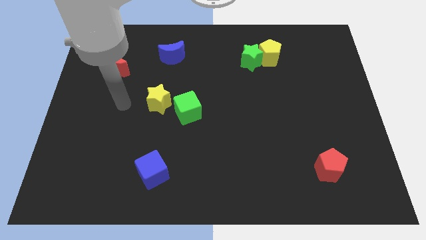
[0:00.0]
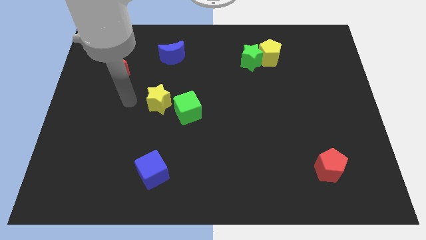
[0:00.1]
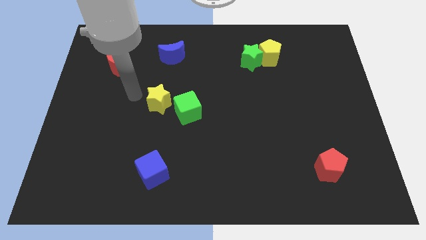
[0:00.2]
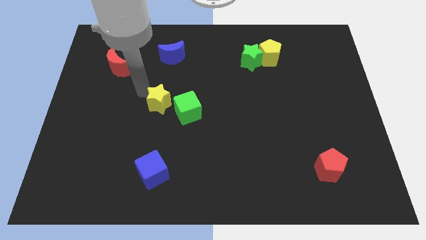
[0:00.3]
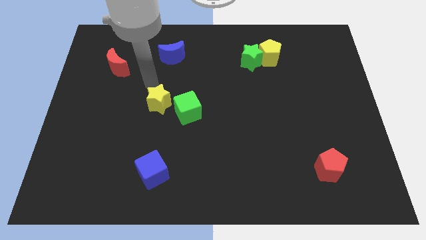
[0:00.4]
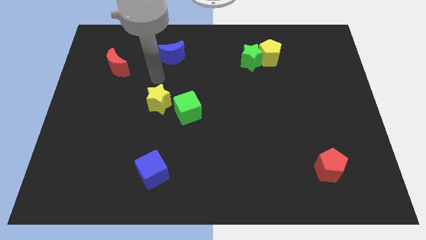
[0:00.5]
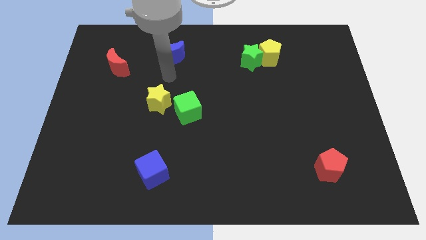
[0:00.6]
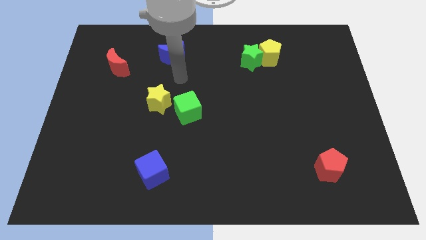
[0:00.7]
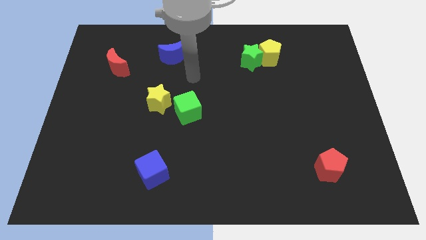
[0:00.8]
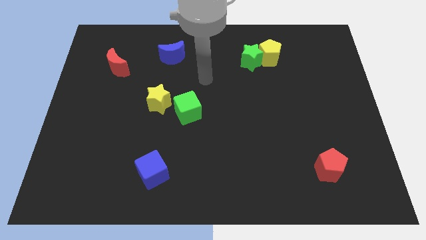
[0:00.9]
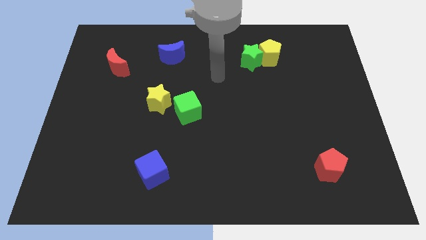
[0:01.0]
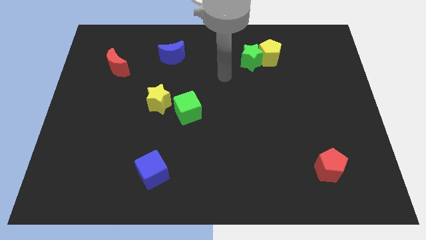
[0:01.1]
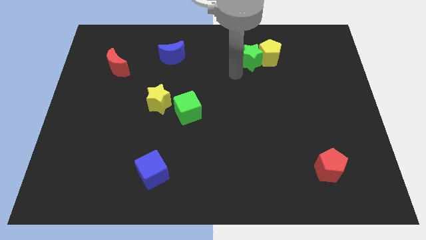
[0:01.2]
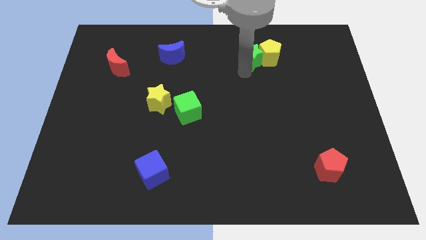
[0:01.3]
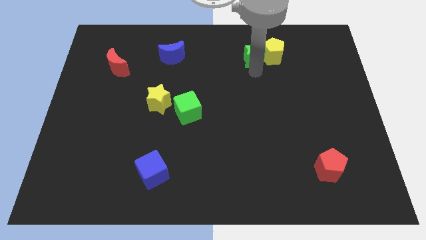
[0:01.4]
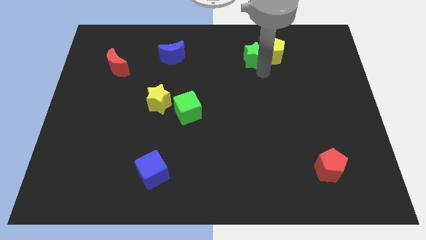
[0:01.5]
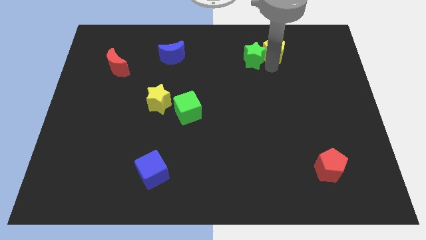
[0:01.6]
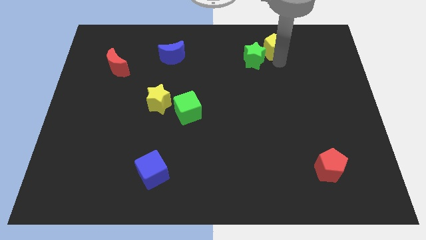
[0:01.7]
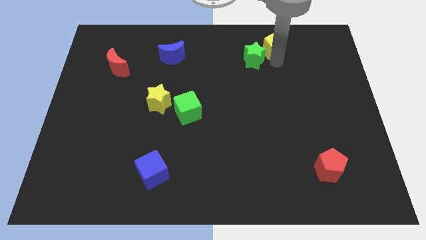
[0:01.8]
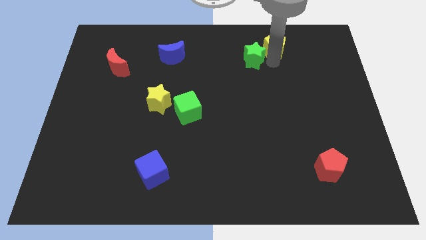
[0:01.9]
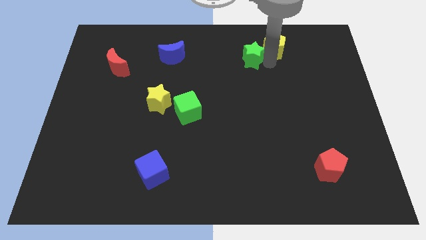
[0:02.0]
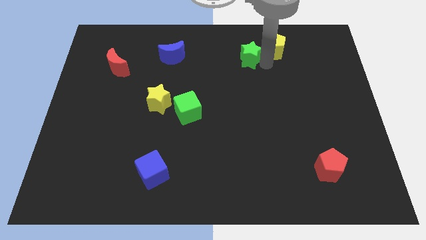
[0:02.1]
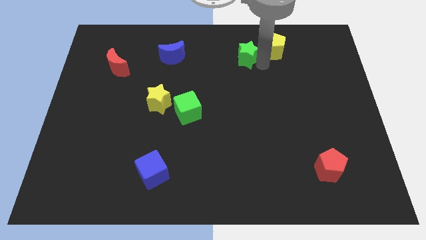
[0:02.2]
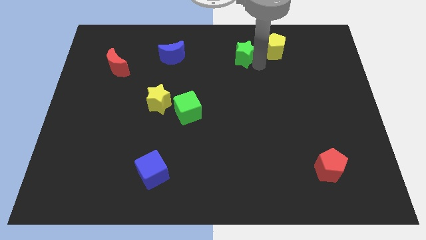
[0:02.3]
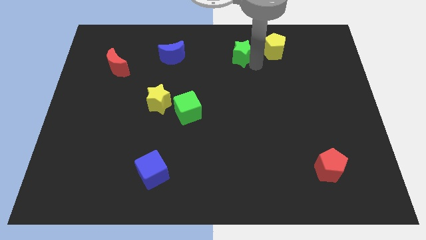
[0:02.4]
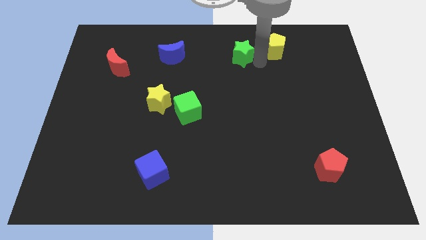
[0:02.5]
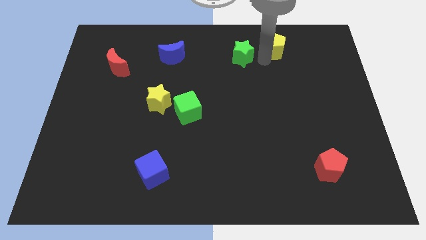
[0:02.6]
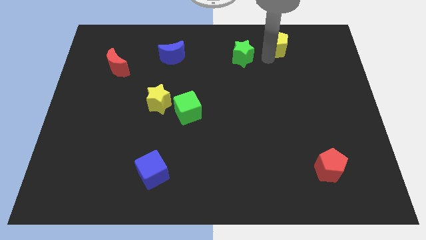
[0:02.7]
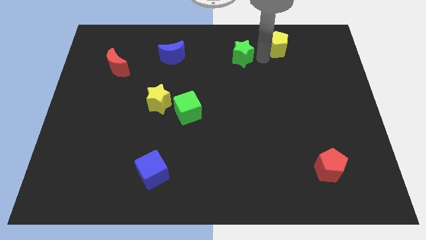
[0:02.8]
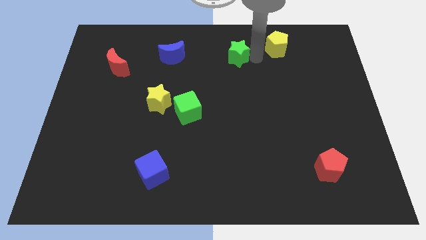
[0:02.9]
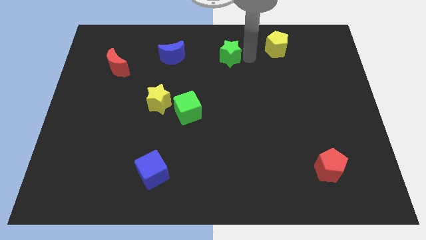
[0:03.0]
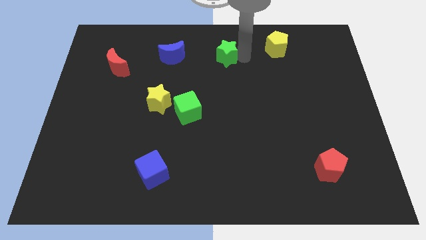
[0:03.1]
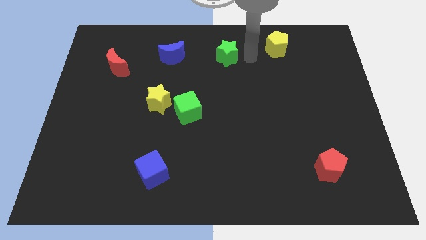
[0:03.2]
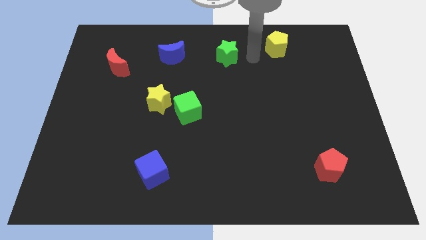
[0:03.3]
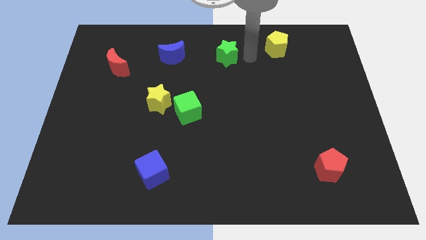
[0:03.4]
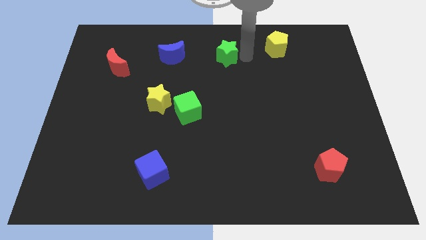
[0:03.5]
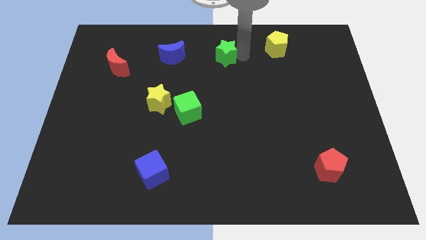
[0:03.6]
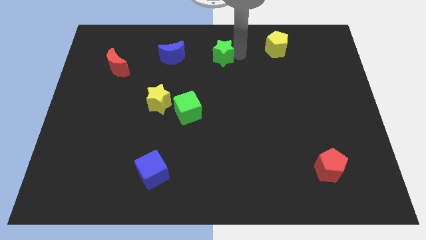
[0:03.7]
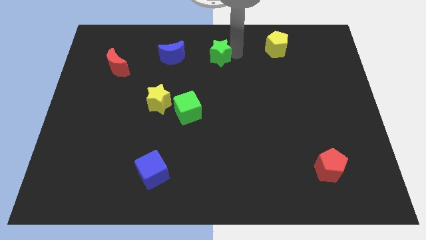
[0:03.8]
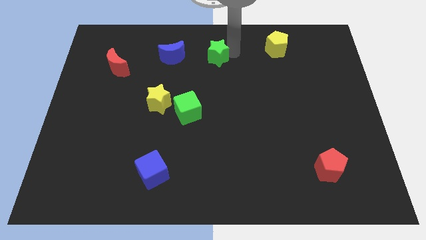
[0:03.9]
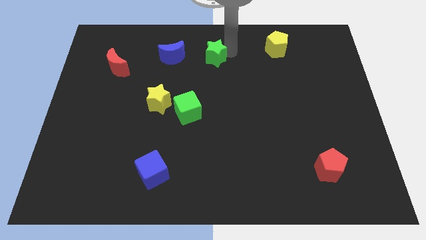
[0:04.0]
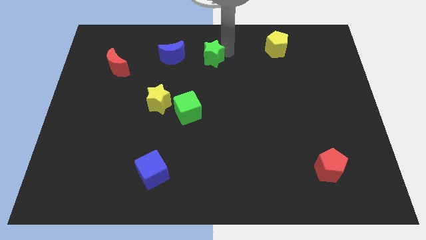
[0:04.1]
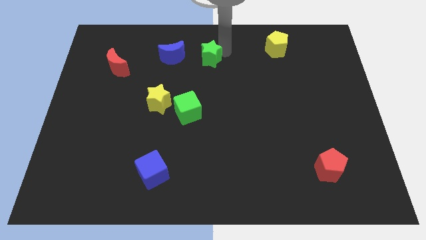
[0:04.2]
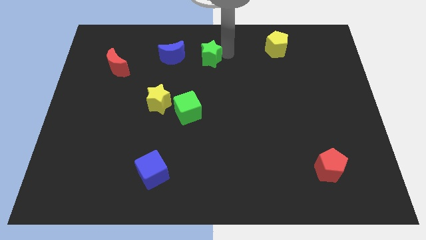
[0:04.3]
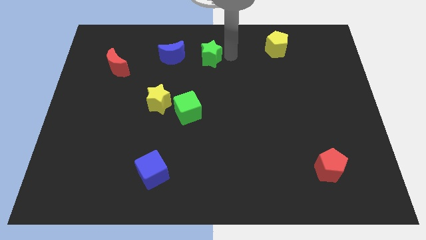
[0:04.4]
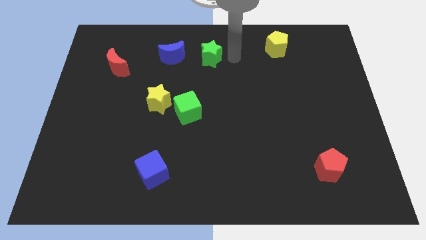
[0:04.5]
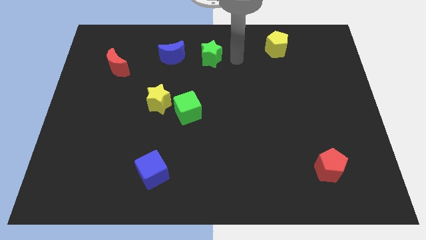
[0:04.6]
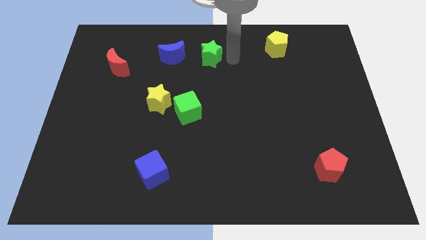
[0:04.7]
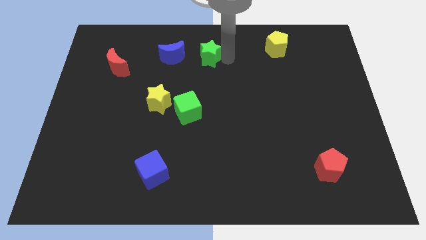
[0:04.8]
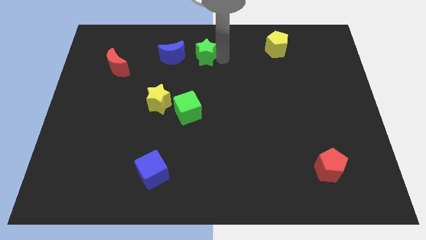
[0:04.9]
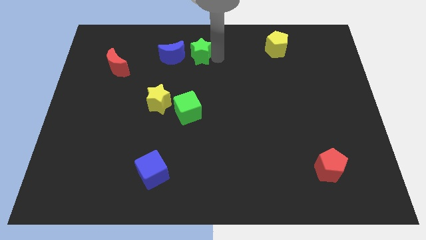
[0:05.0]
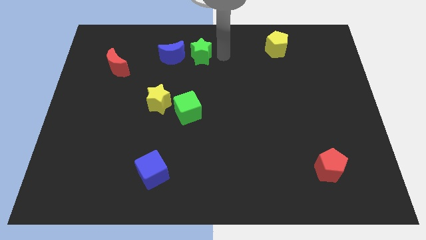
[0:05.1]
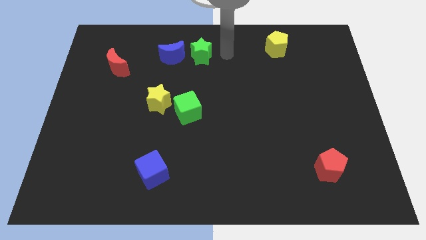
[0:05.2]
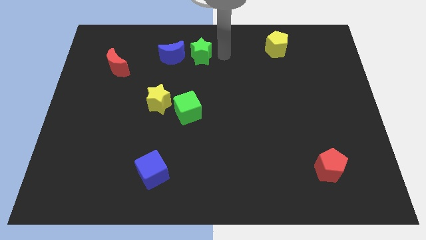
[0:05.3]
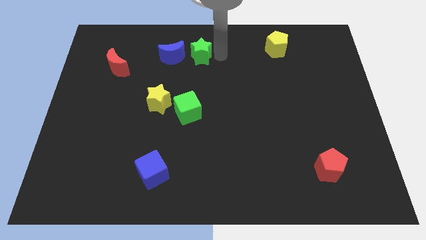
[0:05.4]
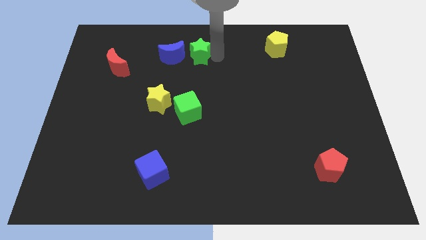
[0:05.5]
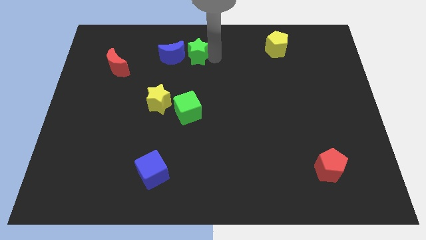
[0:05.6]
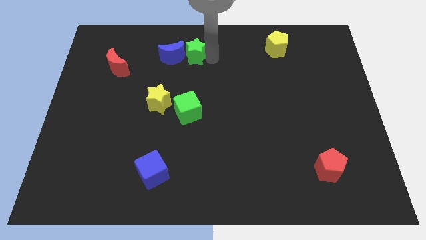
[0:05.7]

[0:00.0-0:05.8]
slide the green star to the blue moon

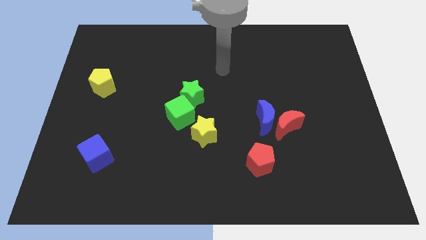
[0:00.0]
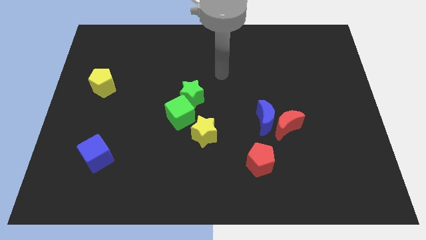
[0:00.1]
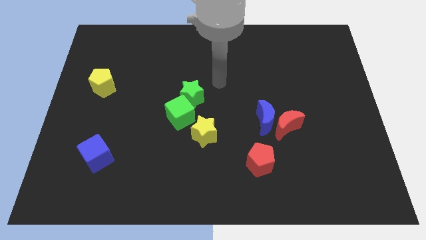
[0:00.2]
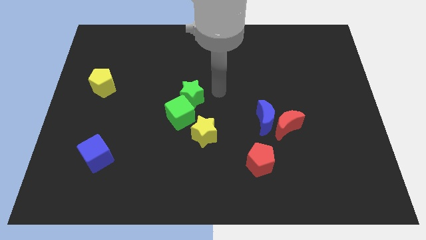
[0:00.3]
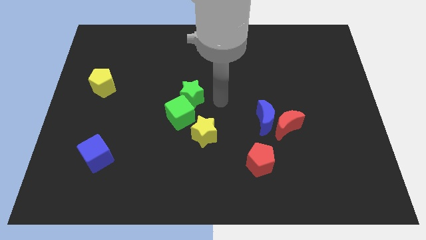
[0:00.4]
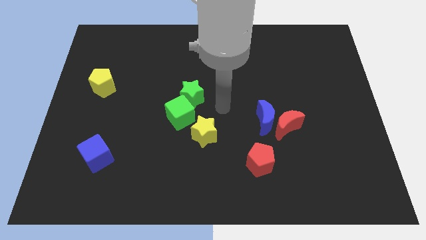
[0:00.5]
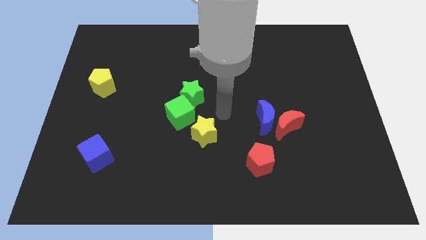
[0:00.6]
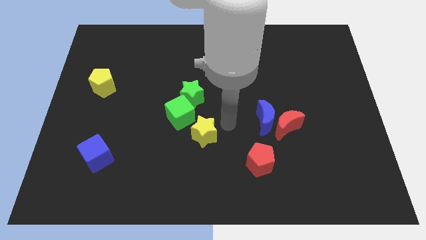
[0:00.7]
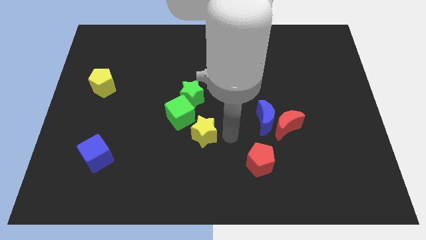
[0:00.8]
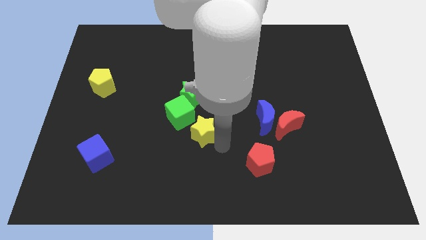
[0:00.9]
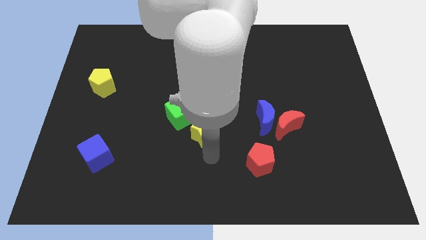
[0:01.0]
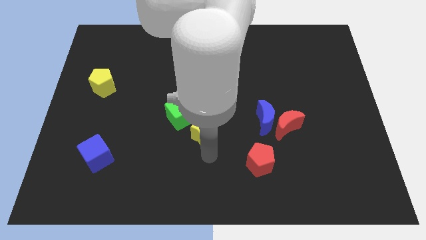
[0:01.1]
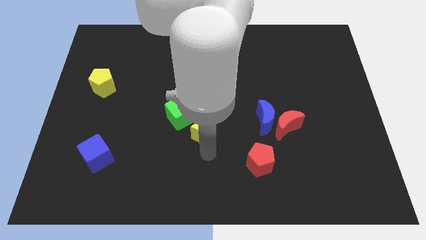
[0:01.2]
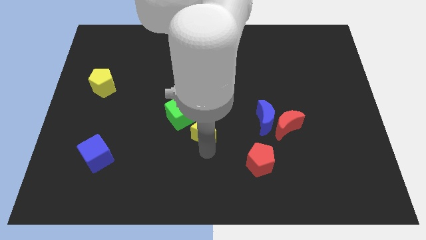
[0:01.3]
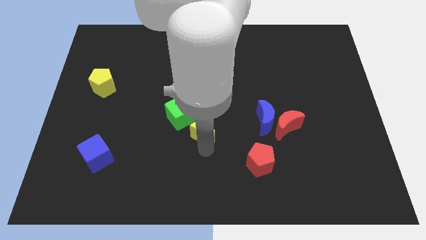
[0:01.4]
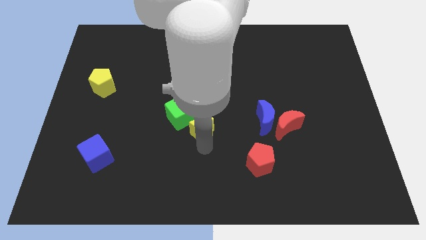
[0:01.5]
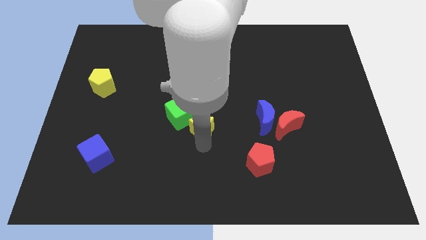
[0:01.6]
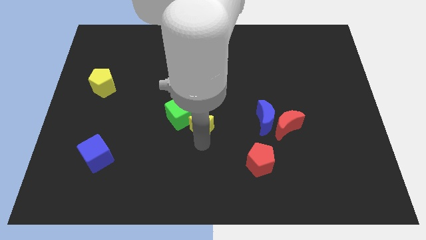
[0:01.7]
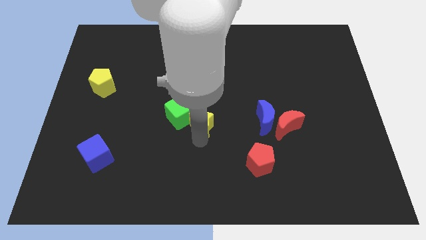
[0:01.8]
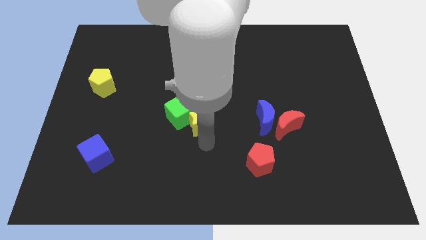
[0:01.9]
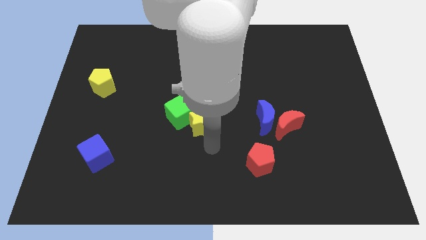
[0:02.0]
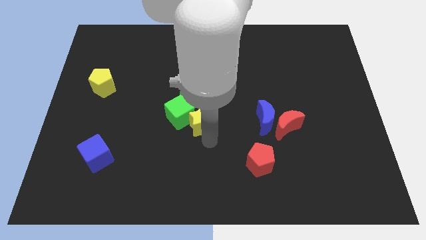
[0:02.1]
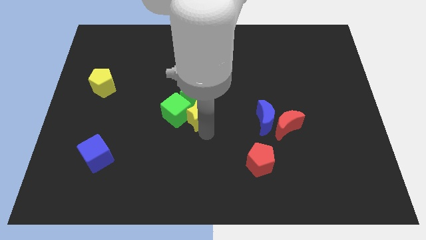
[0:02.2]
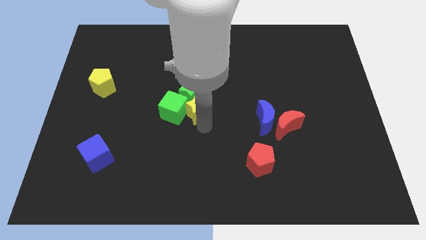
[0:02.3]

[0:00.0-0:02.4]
put the yellow star close to the green star
